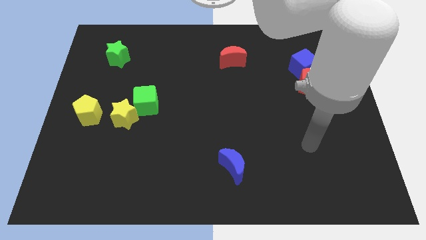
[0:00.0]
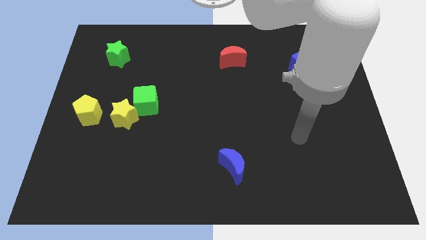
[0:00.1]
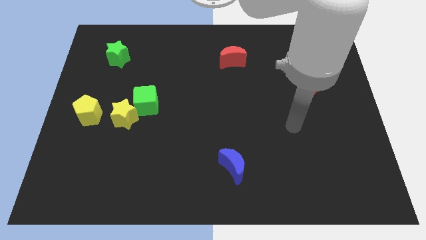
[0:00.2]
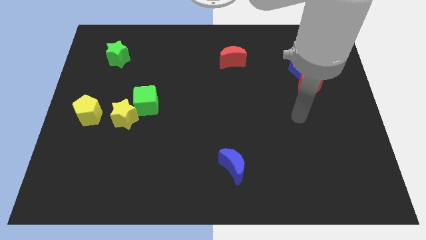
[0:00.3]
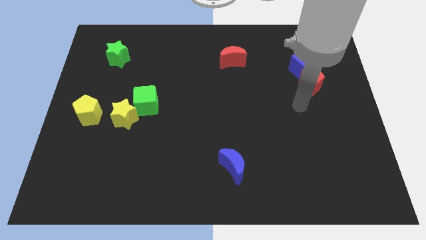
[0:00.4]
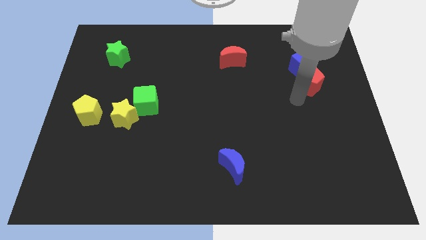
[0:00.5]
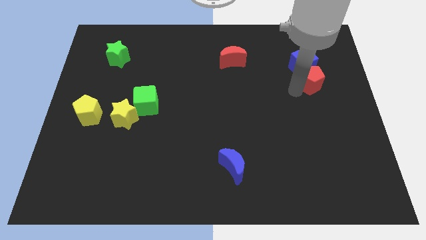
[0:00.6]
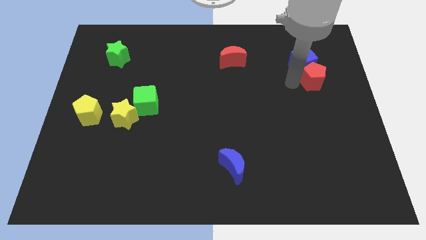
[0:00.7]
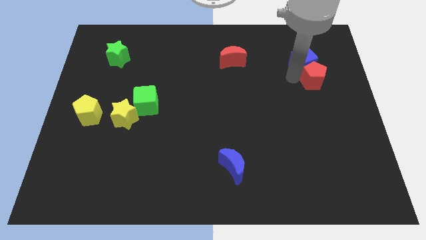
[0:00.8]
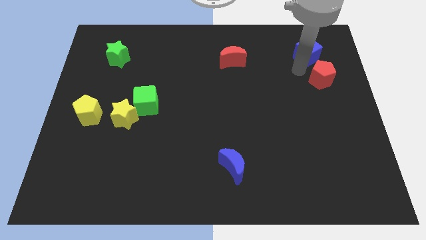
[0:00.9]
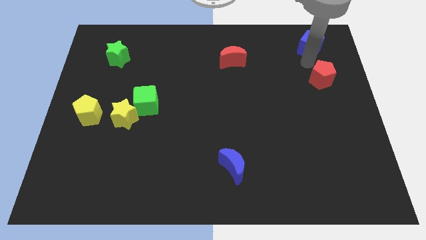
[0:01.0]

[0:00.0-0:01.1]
move the red pentagon away from the blue cube

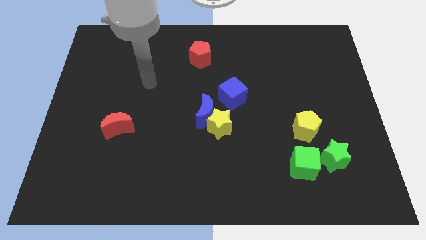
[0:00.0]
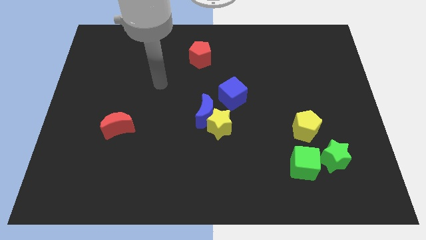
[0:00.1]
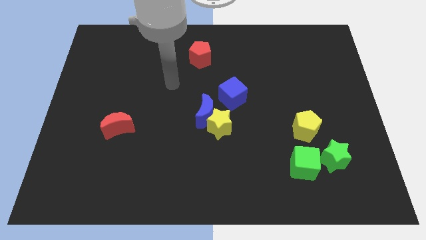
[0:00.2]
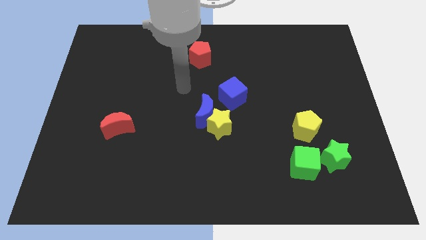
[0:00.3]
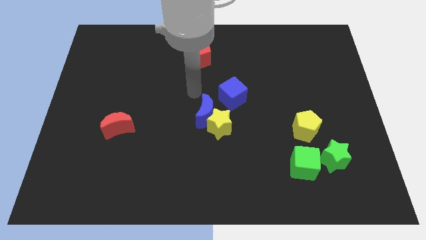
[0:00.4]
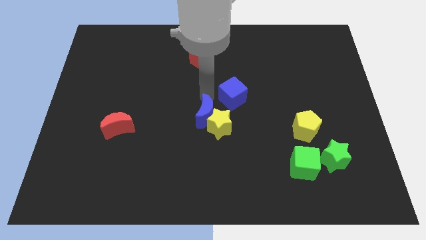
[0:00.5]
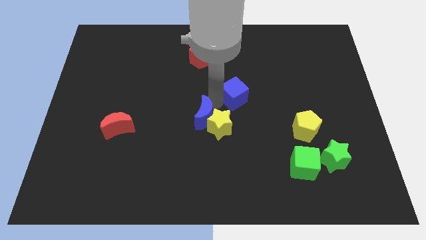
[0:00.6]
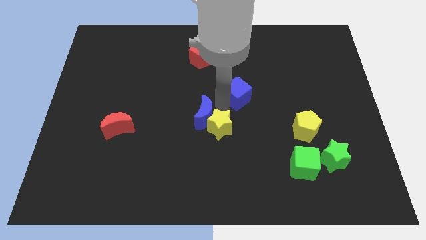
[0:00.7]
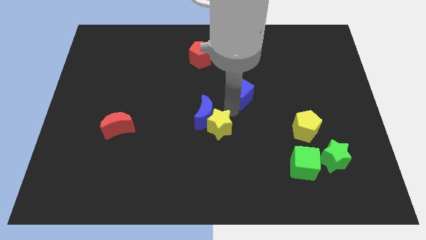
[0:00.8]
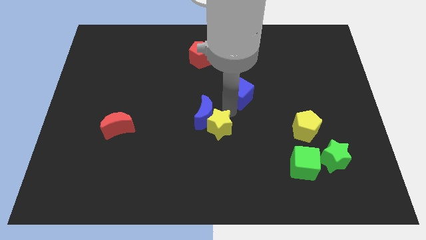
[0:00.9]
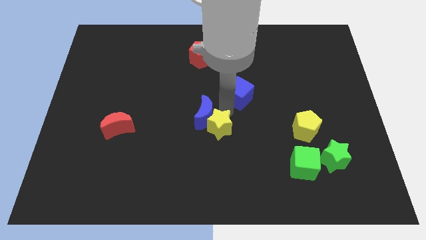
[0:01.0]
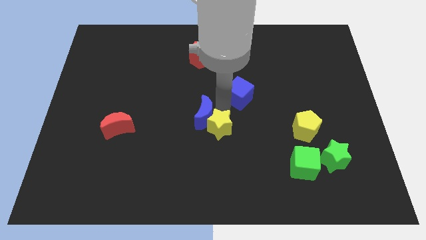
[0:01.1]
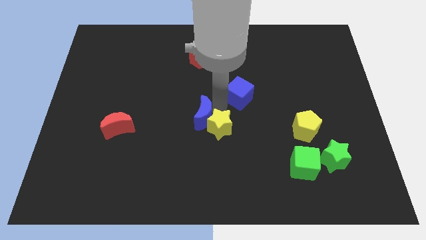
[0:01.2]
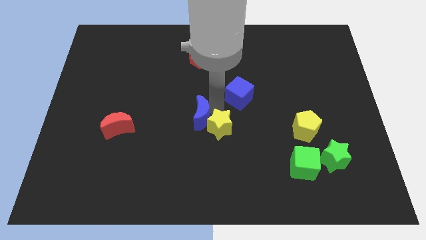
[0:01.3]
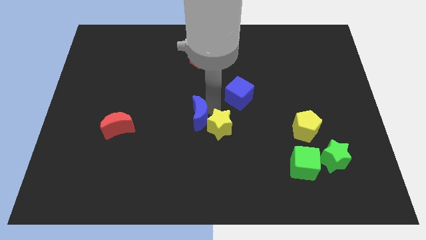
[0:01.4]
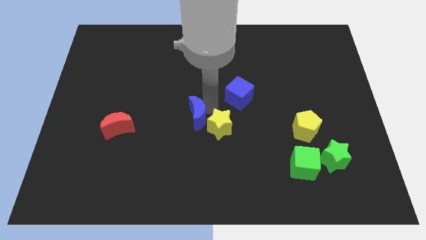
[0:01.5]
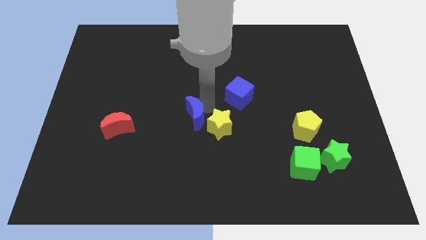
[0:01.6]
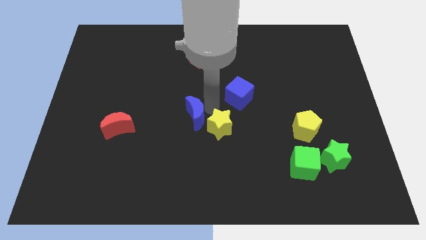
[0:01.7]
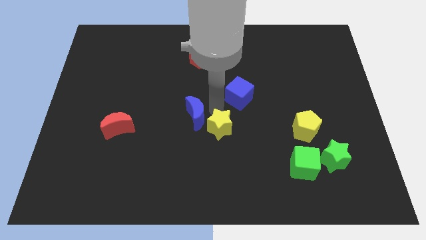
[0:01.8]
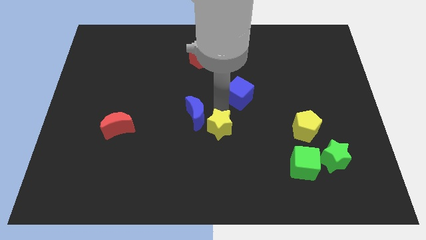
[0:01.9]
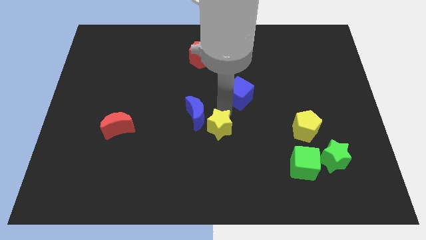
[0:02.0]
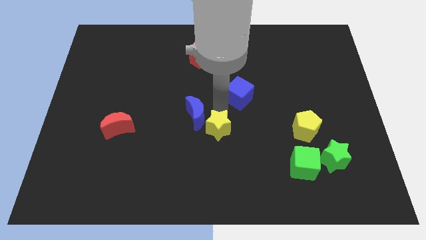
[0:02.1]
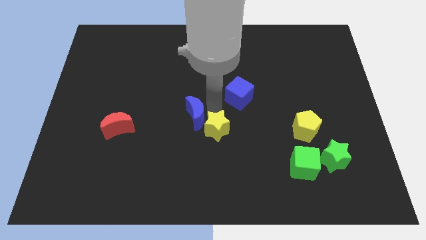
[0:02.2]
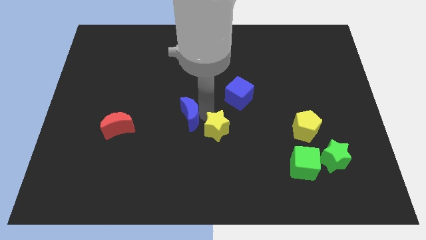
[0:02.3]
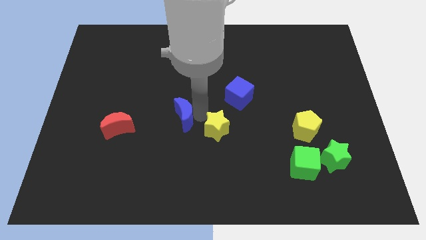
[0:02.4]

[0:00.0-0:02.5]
pull the blue moon apart from the yellow star and blue cube

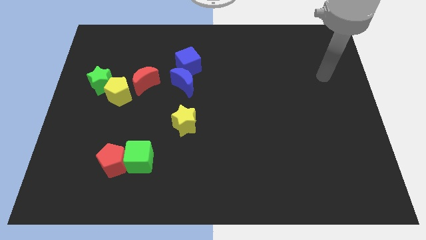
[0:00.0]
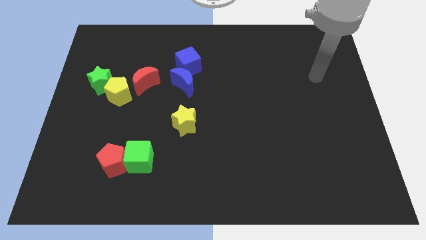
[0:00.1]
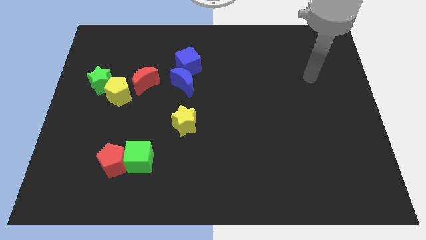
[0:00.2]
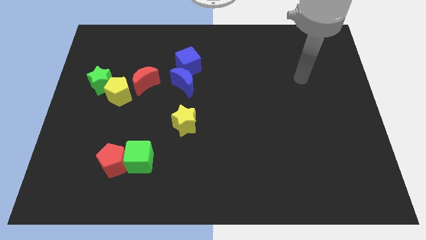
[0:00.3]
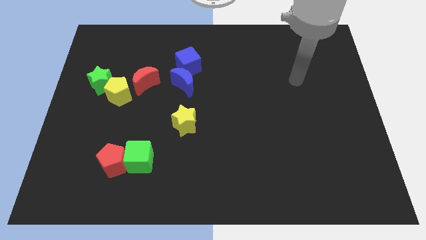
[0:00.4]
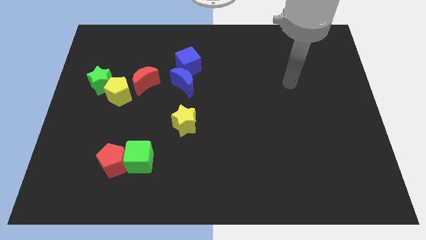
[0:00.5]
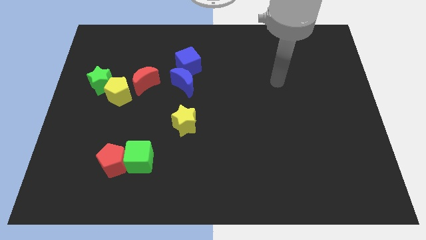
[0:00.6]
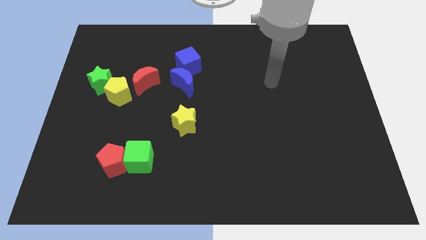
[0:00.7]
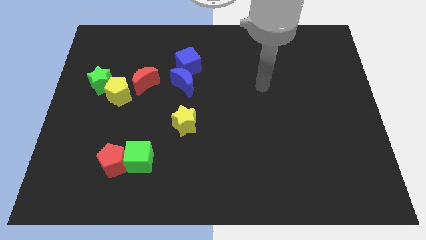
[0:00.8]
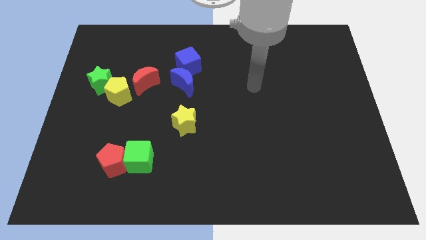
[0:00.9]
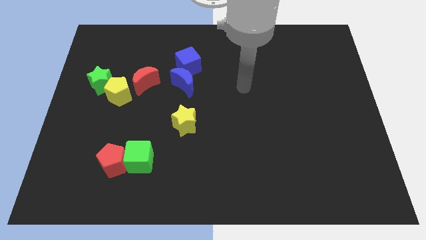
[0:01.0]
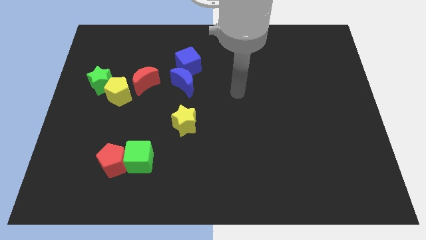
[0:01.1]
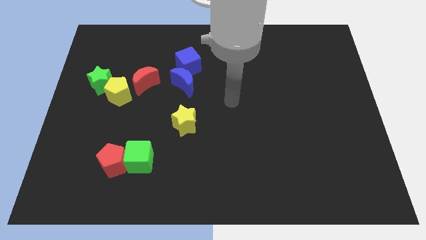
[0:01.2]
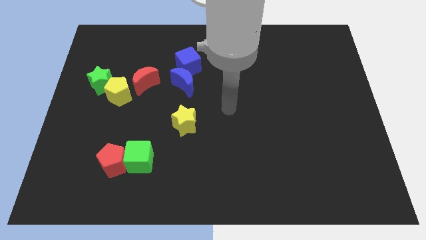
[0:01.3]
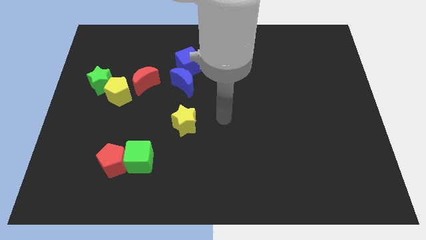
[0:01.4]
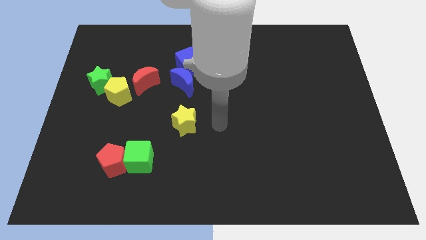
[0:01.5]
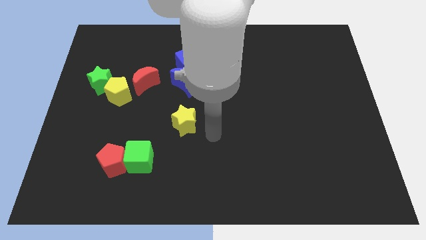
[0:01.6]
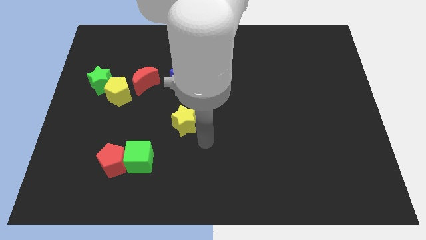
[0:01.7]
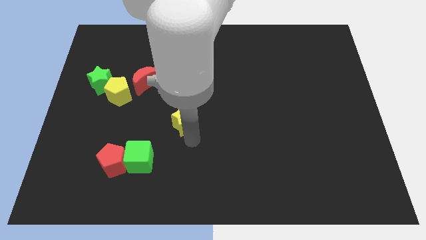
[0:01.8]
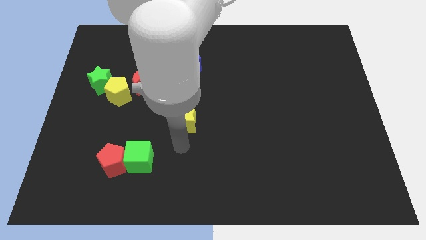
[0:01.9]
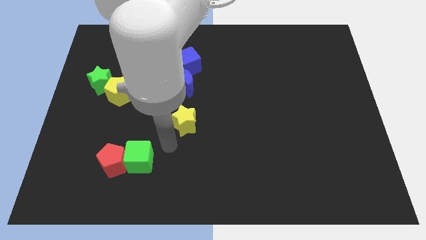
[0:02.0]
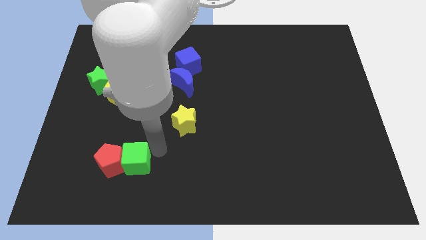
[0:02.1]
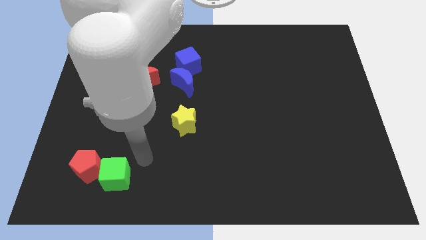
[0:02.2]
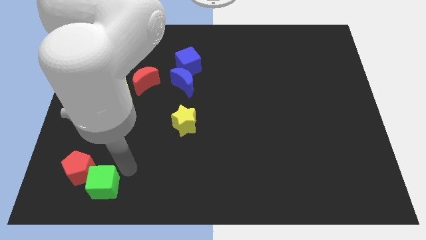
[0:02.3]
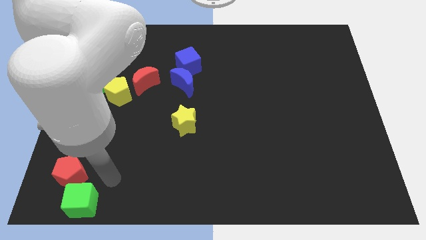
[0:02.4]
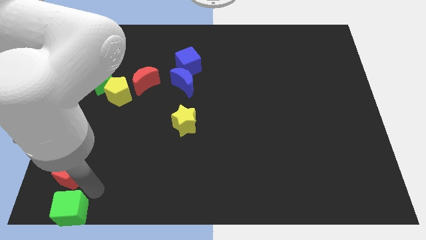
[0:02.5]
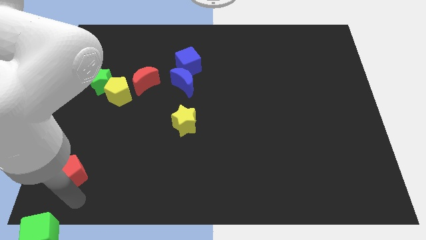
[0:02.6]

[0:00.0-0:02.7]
separate the red pentagon from the green cube

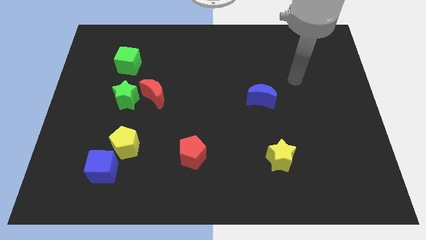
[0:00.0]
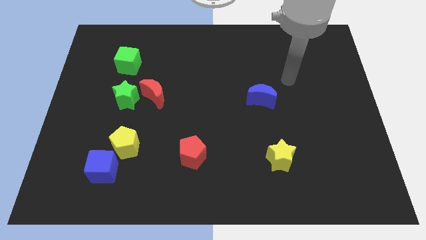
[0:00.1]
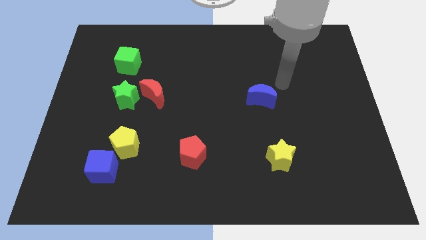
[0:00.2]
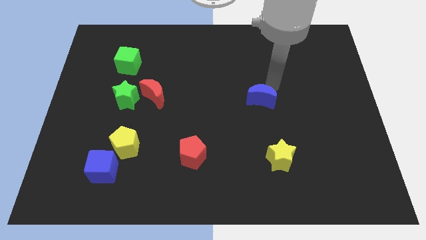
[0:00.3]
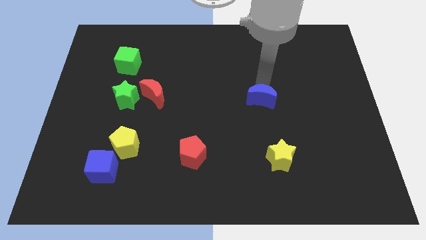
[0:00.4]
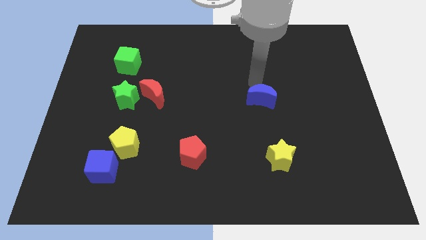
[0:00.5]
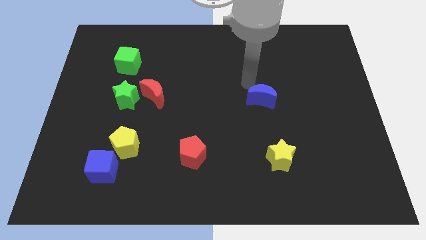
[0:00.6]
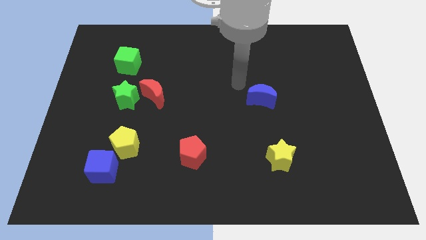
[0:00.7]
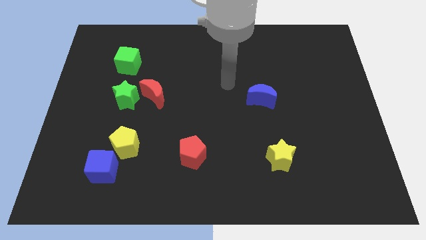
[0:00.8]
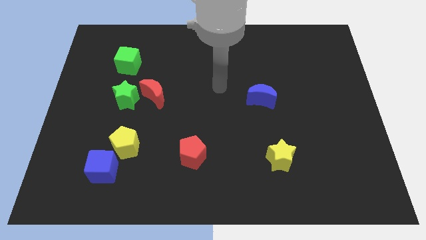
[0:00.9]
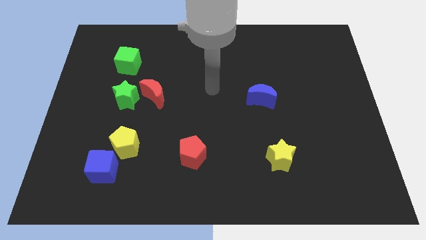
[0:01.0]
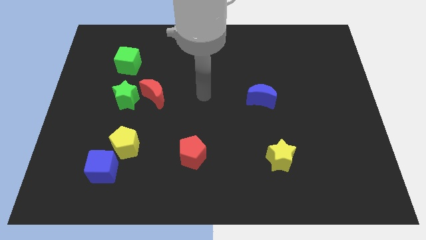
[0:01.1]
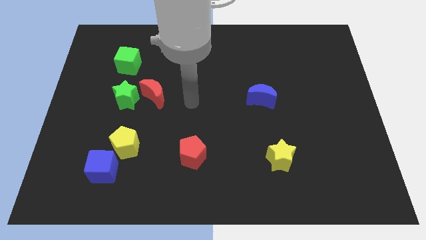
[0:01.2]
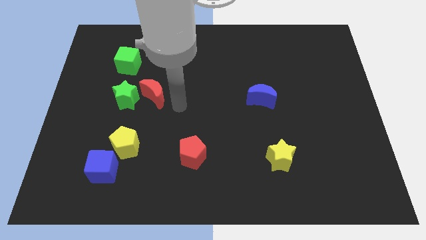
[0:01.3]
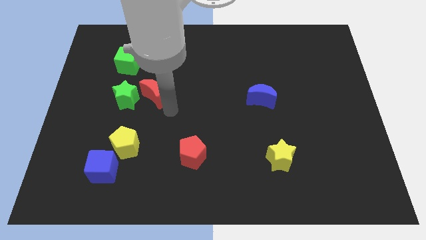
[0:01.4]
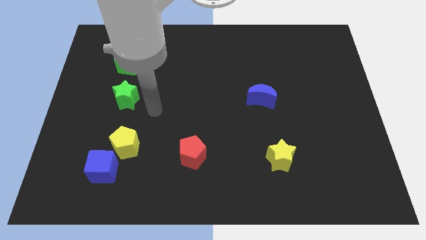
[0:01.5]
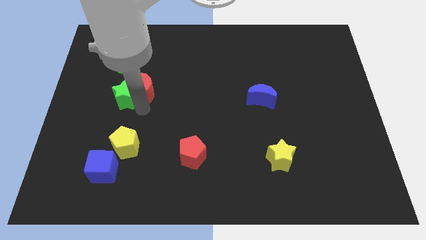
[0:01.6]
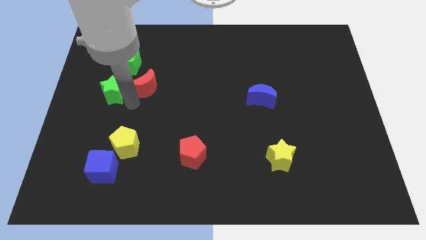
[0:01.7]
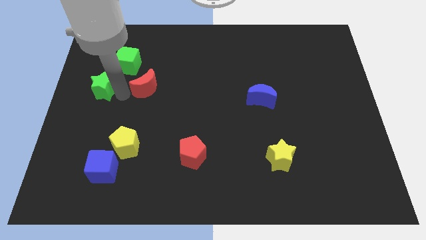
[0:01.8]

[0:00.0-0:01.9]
move the red moon away from the green star

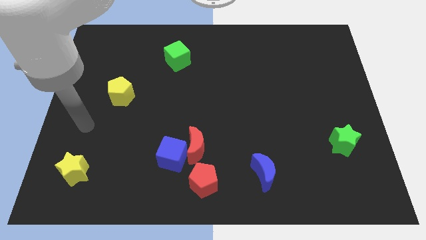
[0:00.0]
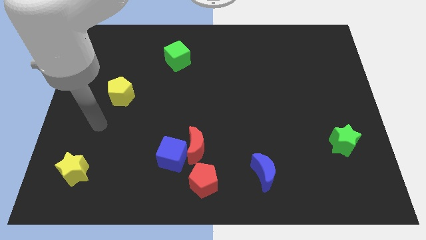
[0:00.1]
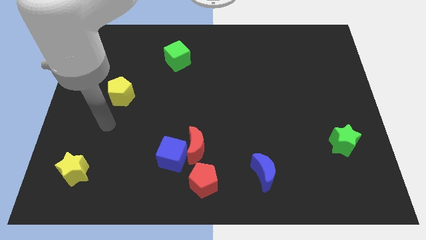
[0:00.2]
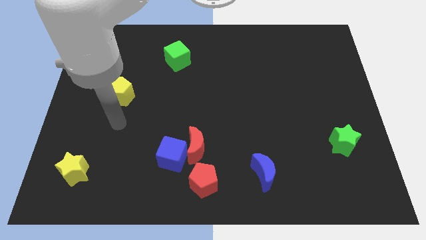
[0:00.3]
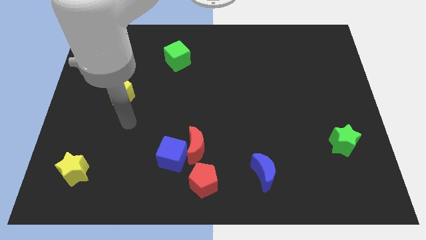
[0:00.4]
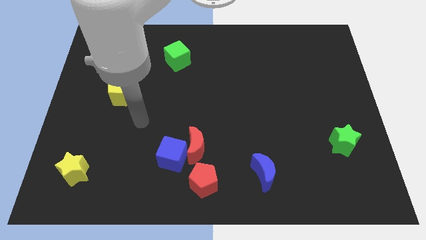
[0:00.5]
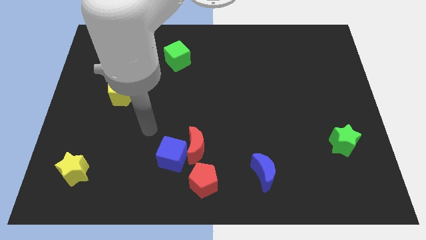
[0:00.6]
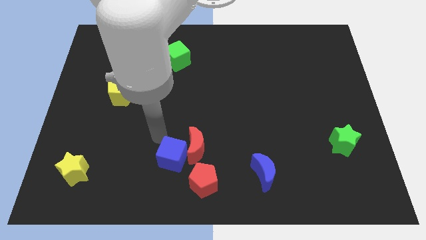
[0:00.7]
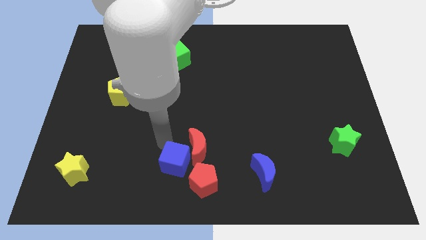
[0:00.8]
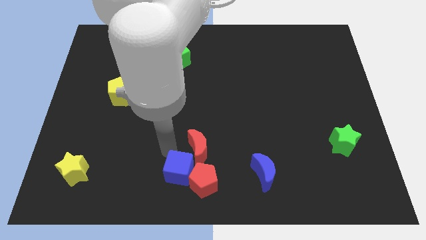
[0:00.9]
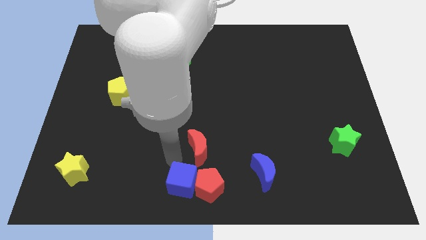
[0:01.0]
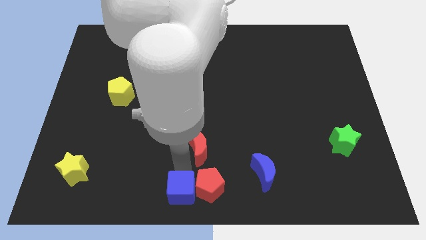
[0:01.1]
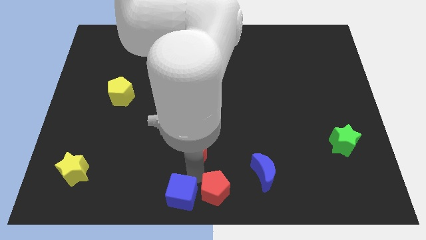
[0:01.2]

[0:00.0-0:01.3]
move the red moon away from the blue cube and red pentagon
